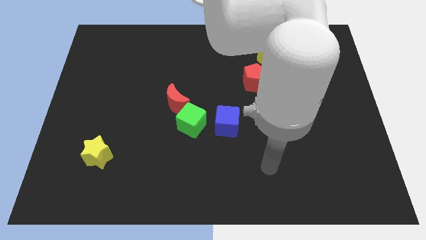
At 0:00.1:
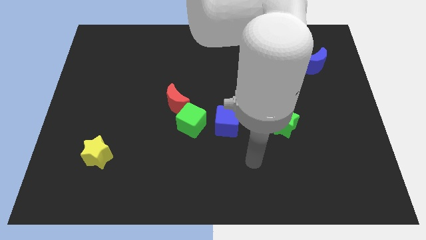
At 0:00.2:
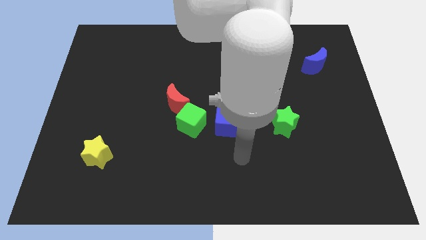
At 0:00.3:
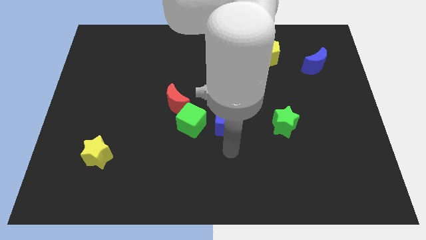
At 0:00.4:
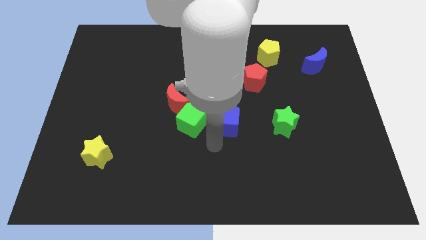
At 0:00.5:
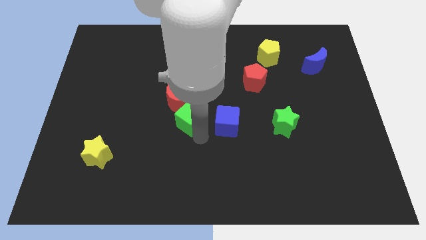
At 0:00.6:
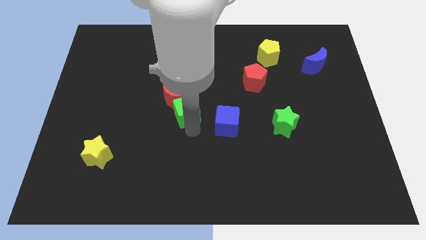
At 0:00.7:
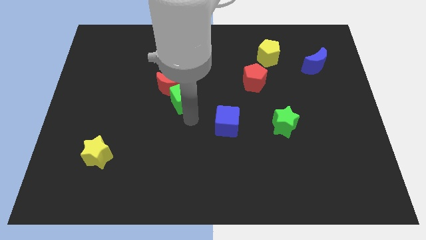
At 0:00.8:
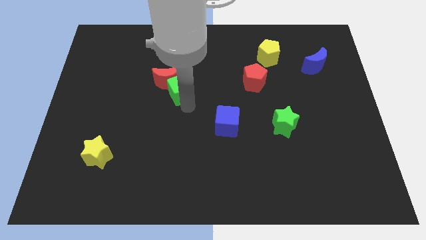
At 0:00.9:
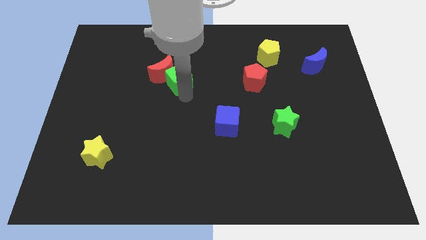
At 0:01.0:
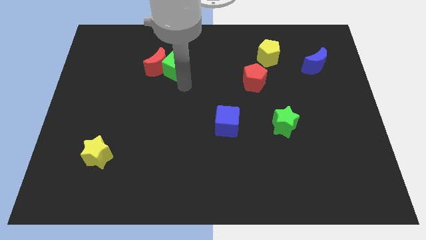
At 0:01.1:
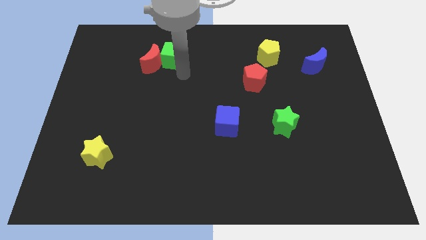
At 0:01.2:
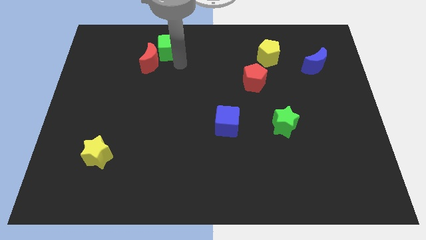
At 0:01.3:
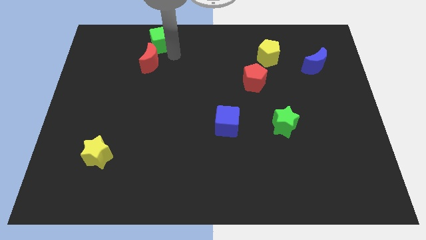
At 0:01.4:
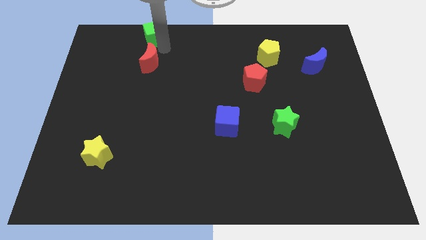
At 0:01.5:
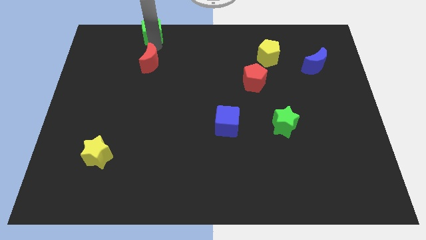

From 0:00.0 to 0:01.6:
move the red moon away from the green cube

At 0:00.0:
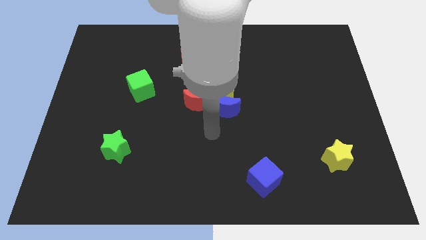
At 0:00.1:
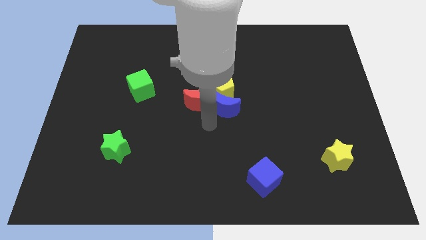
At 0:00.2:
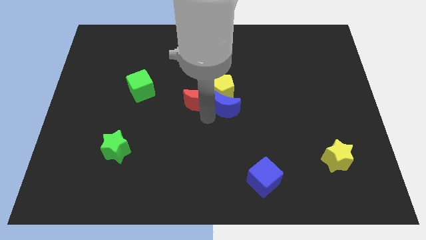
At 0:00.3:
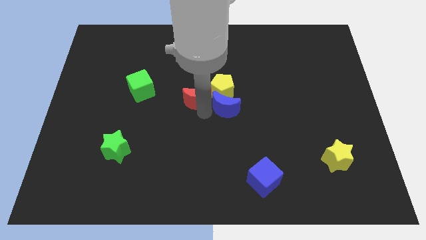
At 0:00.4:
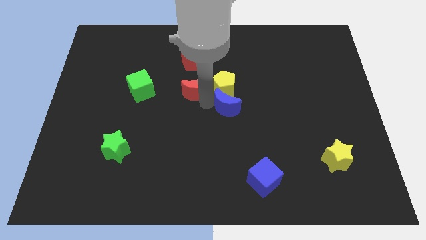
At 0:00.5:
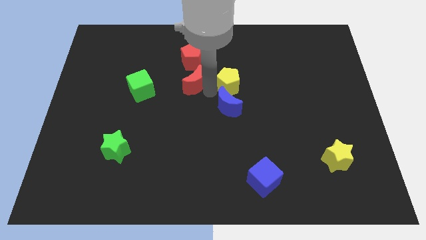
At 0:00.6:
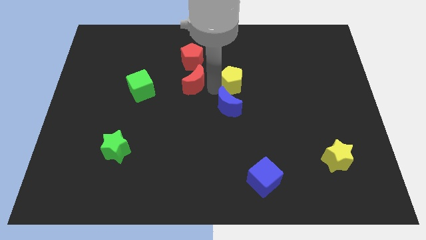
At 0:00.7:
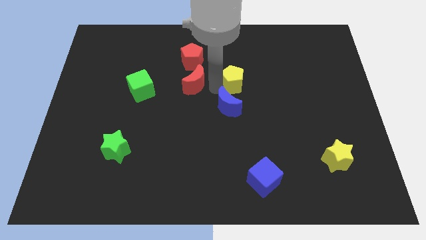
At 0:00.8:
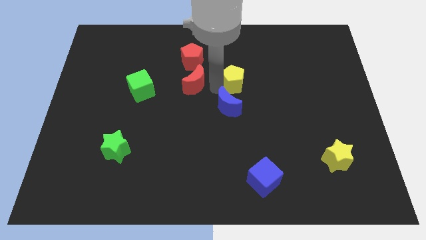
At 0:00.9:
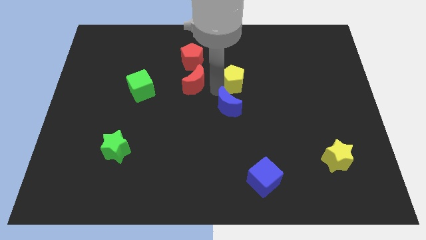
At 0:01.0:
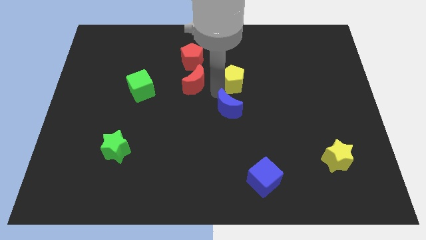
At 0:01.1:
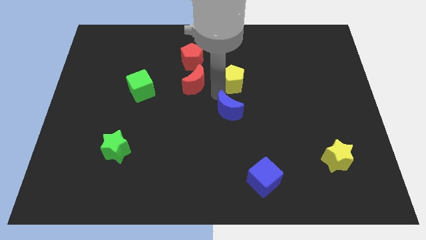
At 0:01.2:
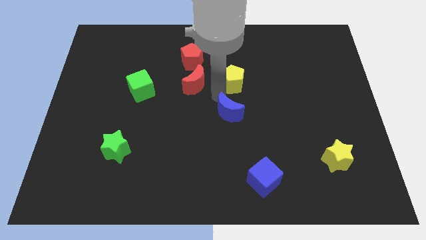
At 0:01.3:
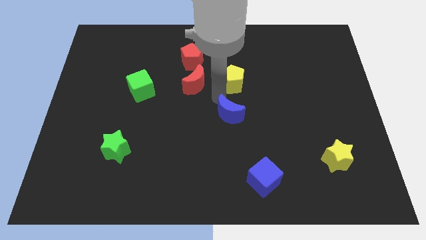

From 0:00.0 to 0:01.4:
move the blue moon away from the yellow pentagon and red moon

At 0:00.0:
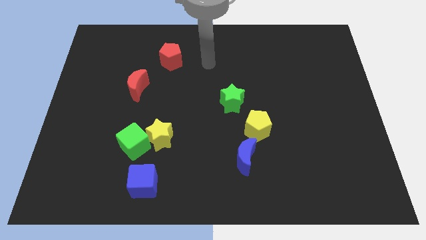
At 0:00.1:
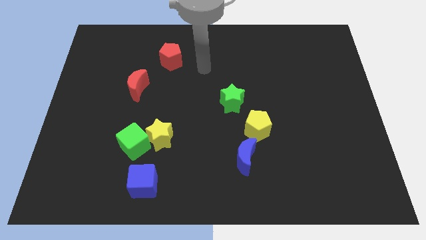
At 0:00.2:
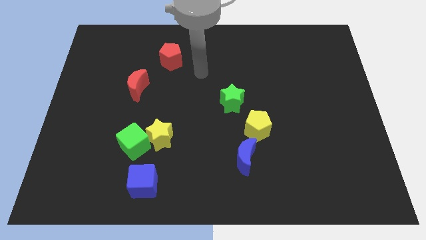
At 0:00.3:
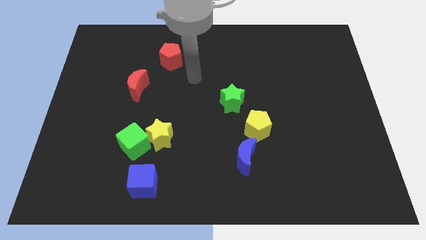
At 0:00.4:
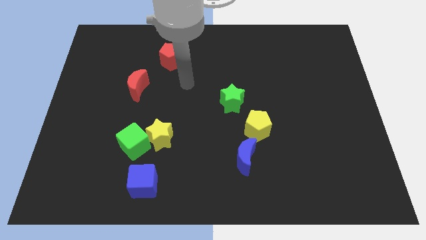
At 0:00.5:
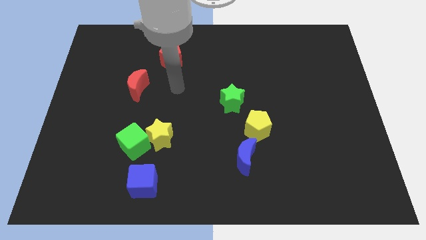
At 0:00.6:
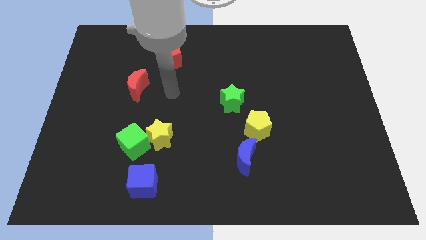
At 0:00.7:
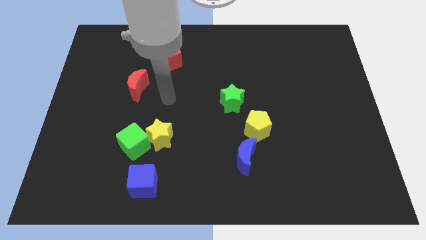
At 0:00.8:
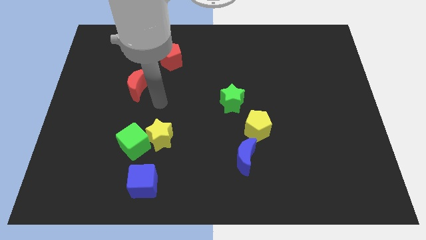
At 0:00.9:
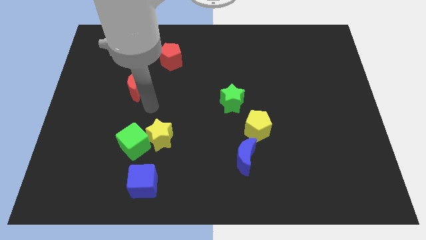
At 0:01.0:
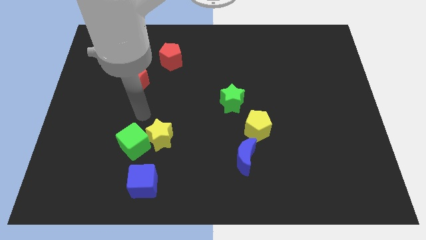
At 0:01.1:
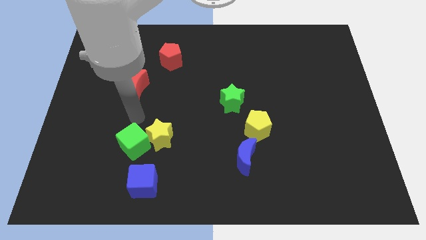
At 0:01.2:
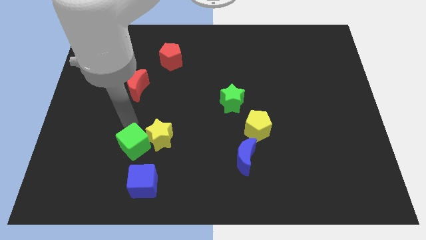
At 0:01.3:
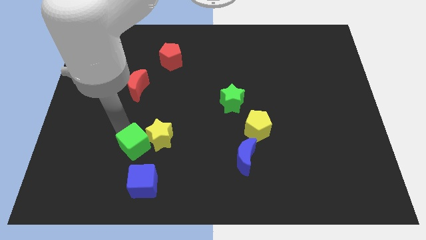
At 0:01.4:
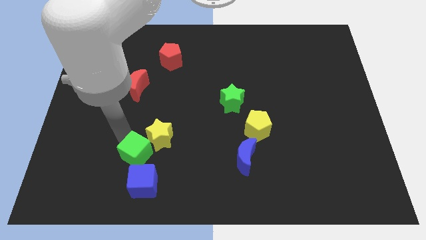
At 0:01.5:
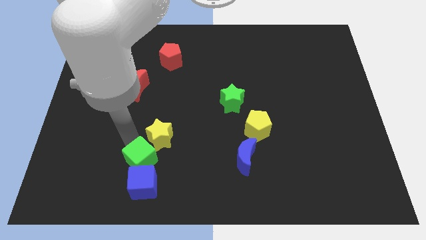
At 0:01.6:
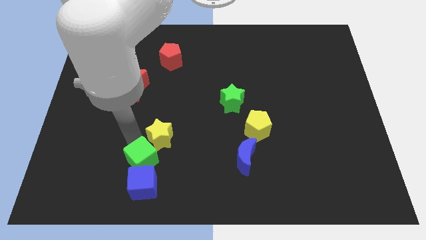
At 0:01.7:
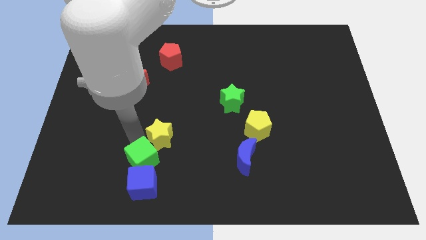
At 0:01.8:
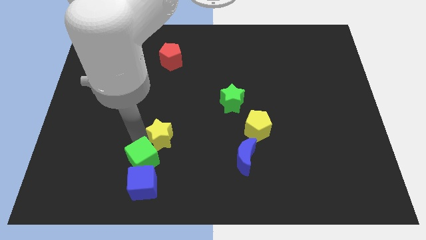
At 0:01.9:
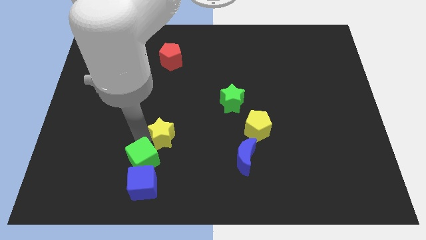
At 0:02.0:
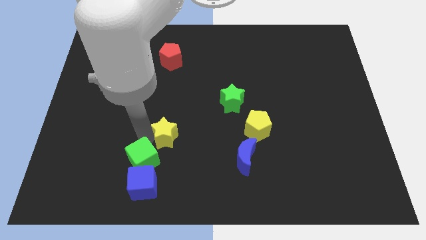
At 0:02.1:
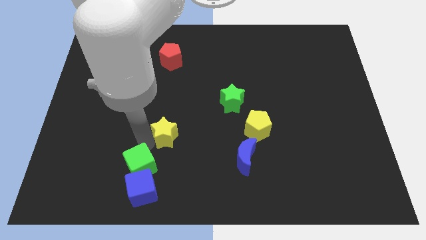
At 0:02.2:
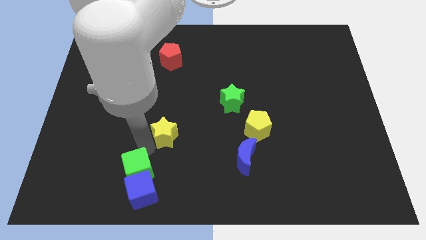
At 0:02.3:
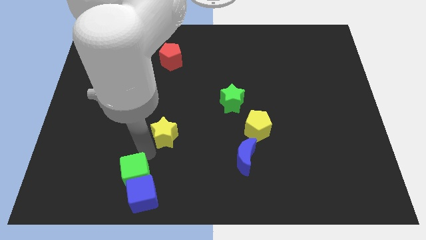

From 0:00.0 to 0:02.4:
move the yellow star away from the green cube

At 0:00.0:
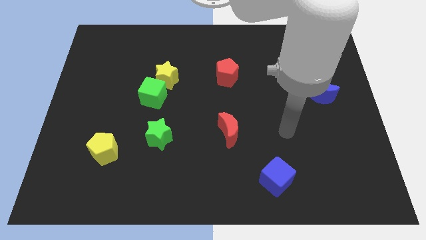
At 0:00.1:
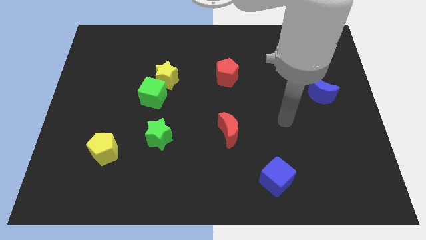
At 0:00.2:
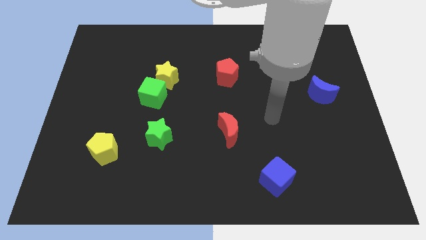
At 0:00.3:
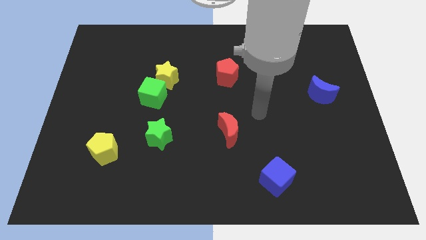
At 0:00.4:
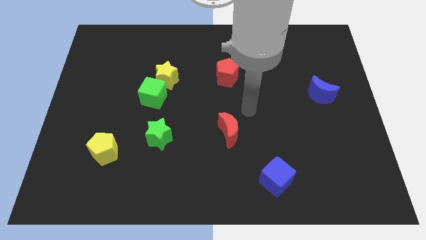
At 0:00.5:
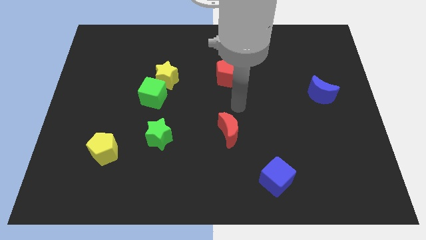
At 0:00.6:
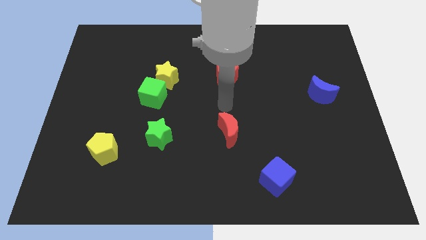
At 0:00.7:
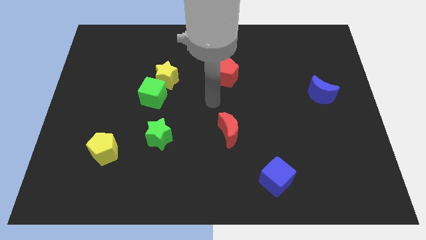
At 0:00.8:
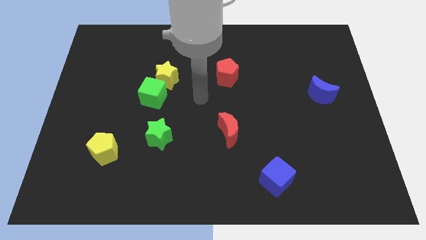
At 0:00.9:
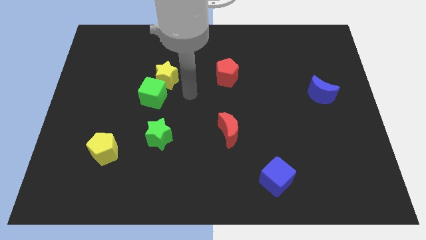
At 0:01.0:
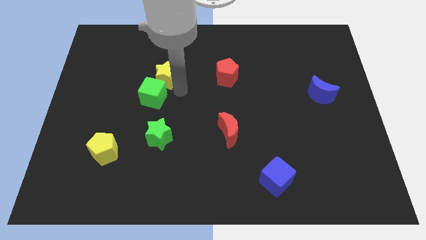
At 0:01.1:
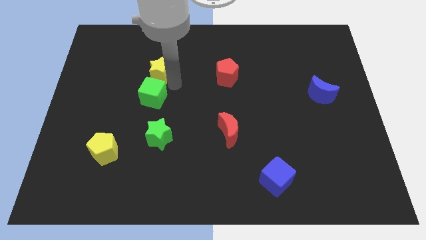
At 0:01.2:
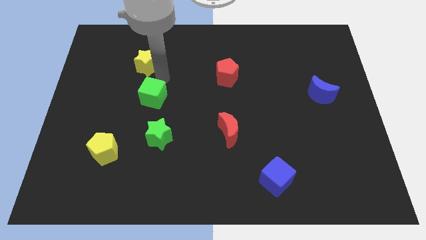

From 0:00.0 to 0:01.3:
pull the green cube apart from the yellow star

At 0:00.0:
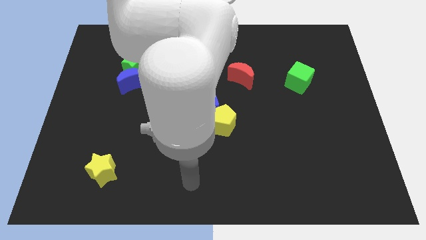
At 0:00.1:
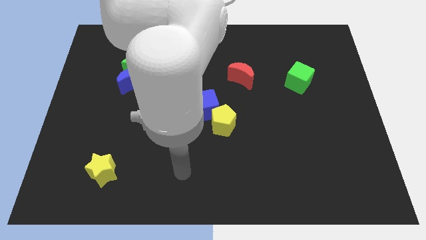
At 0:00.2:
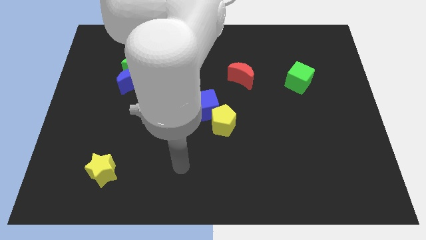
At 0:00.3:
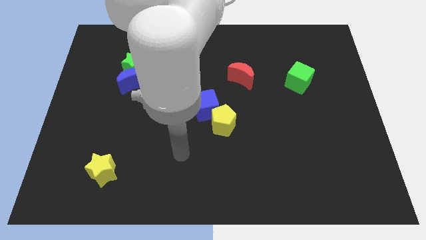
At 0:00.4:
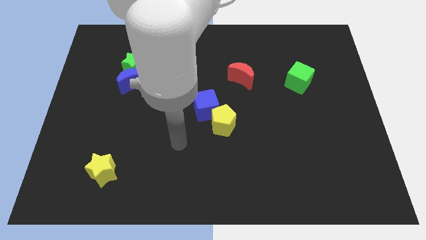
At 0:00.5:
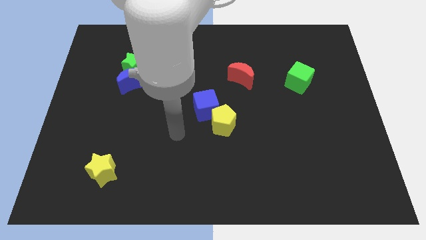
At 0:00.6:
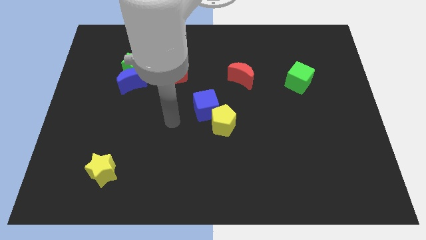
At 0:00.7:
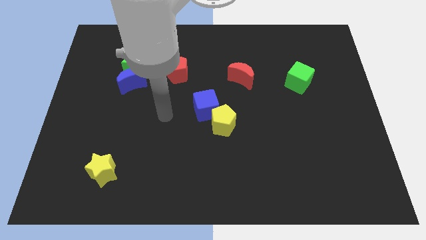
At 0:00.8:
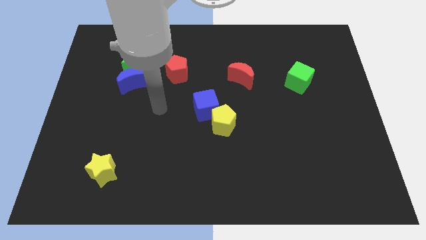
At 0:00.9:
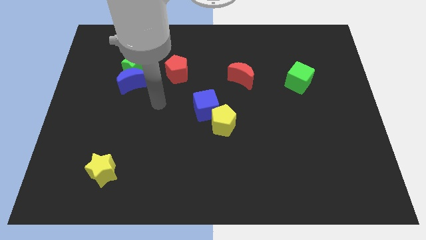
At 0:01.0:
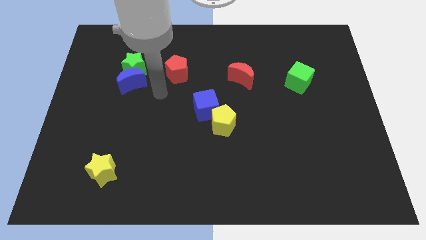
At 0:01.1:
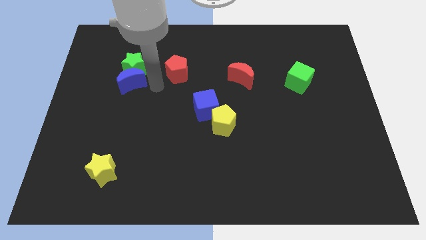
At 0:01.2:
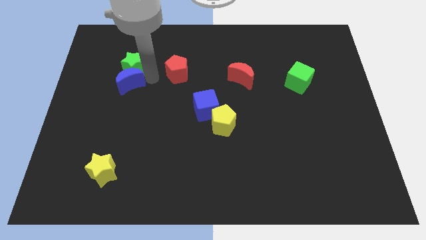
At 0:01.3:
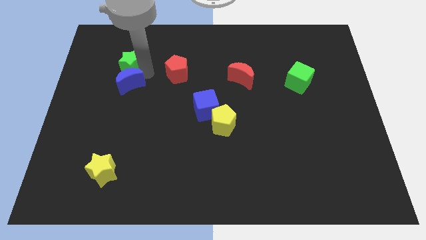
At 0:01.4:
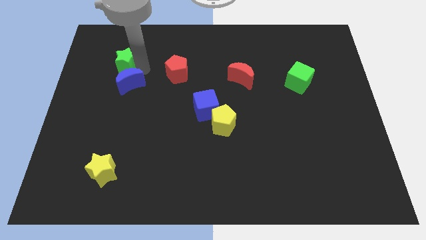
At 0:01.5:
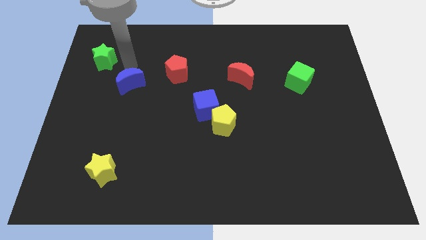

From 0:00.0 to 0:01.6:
separate the blue moon from the green star

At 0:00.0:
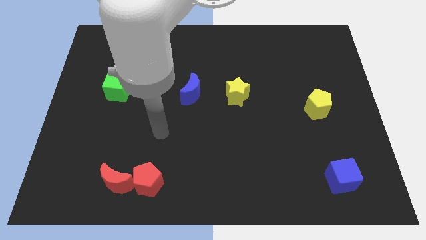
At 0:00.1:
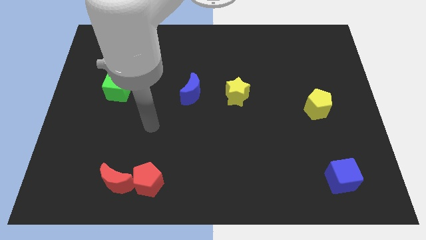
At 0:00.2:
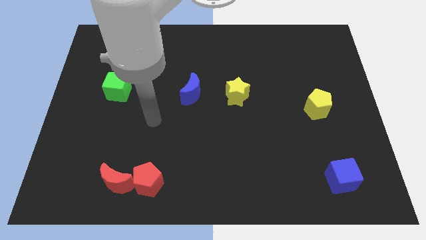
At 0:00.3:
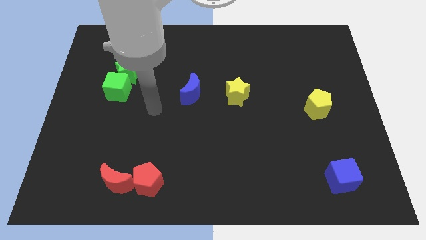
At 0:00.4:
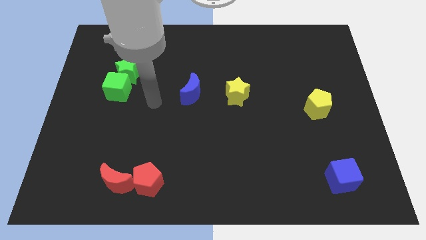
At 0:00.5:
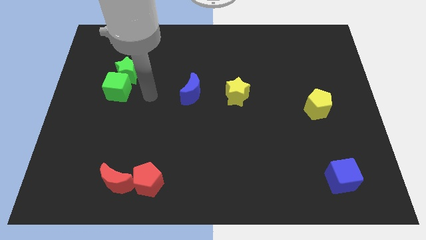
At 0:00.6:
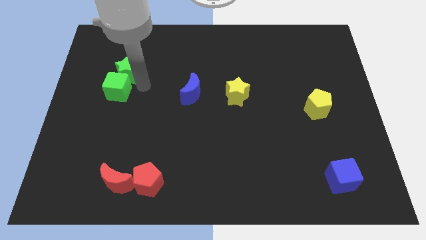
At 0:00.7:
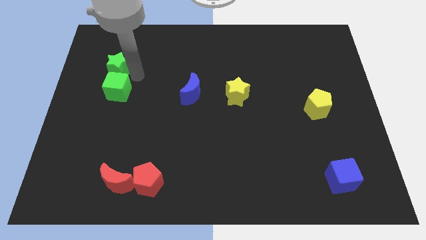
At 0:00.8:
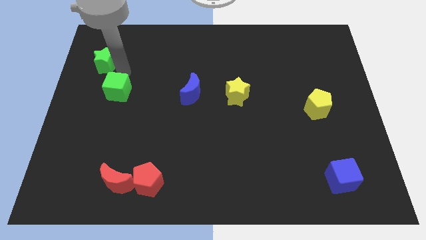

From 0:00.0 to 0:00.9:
separate the green cube from the green star

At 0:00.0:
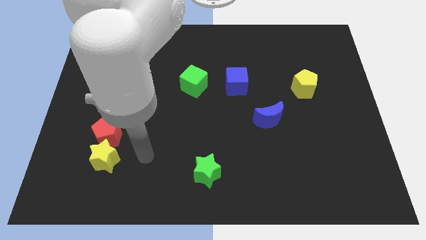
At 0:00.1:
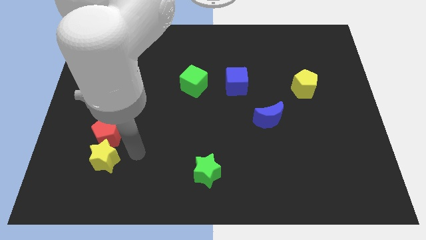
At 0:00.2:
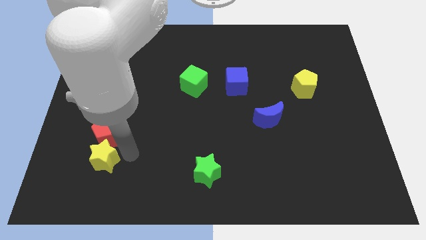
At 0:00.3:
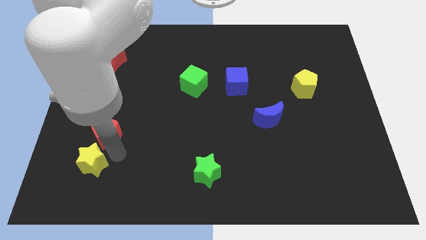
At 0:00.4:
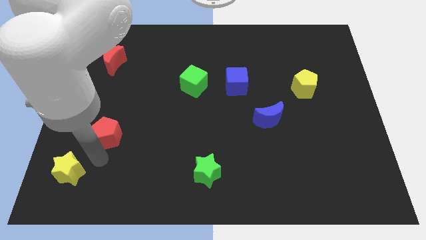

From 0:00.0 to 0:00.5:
pull the red pentagon apart from the yellow star
